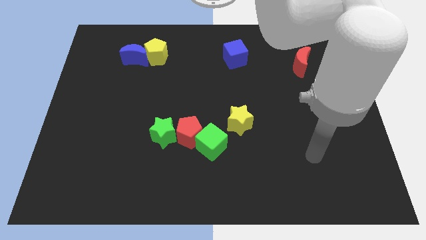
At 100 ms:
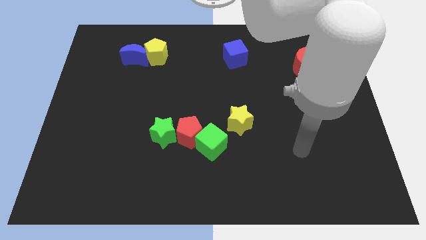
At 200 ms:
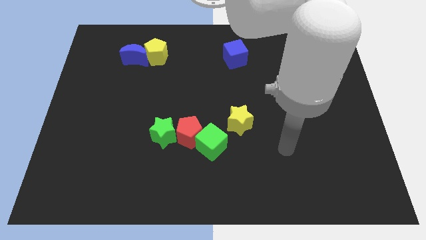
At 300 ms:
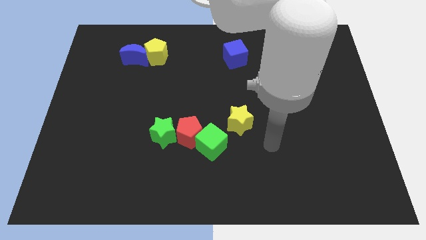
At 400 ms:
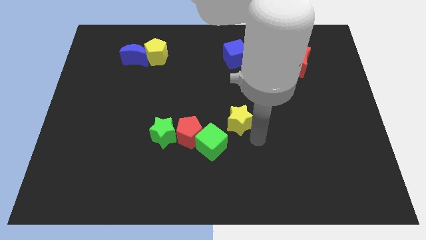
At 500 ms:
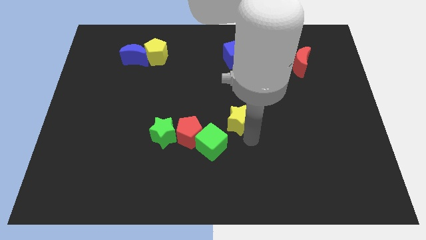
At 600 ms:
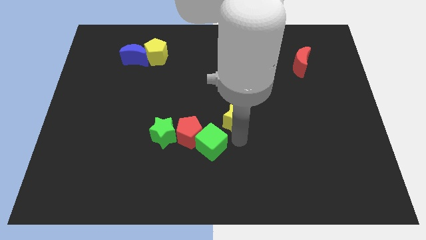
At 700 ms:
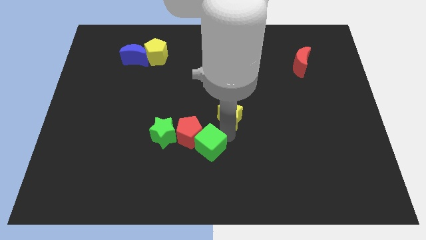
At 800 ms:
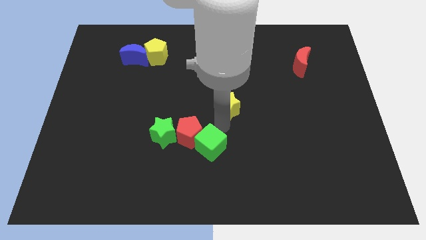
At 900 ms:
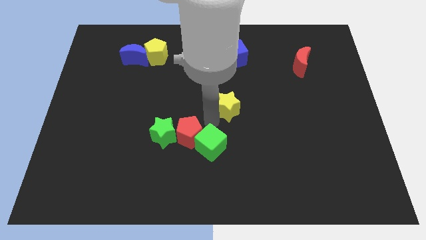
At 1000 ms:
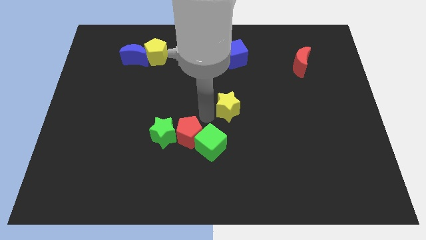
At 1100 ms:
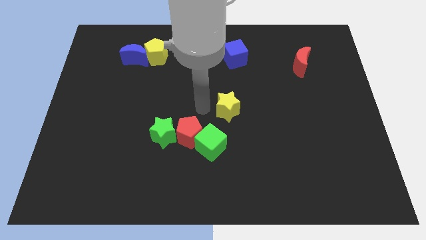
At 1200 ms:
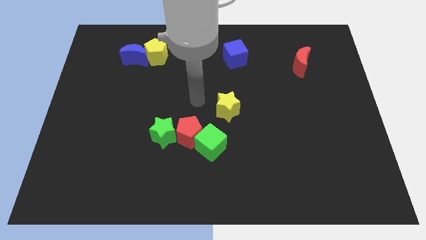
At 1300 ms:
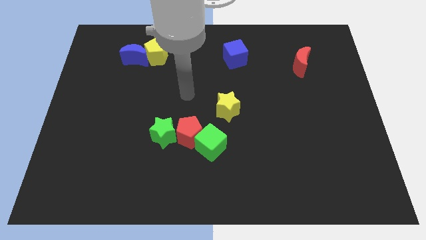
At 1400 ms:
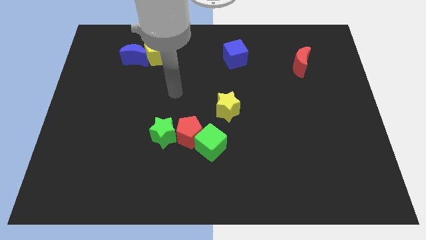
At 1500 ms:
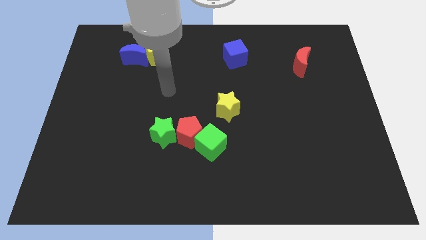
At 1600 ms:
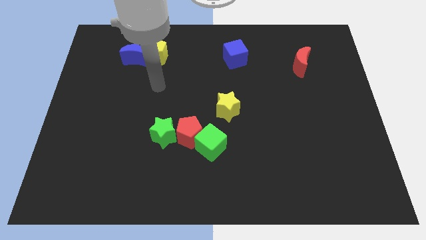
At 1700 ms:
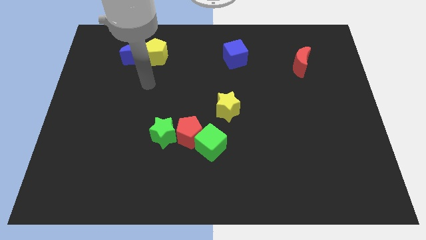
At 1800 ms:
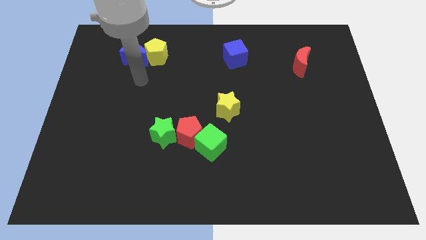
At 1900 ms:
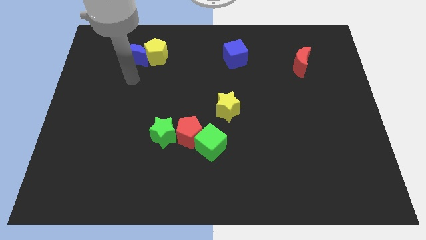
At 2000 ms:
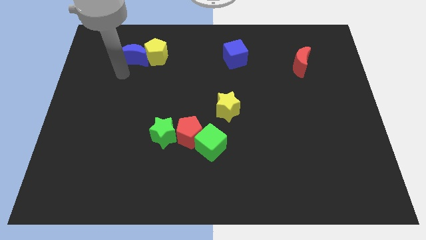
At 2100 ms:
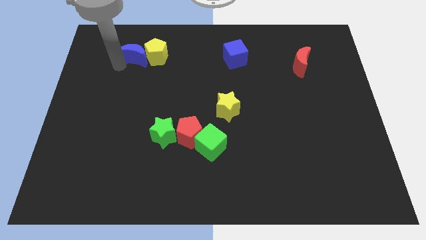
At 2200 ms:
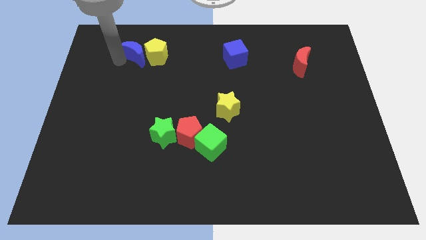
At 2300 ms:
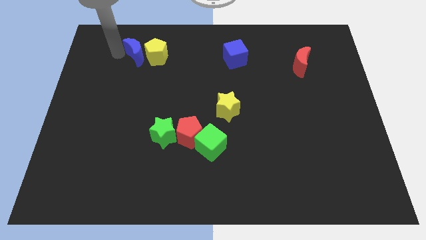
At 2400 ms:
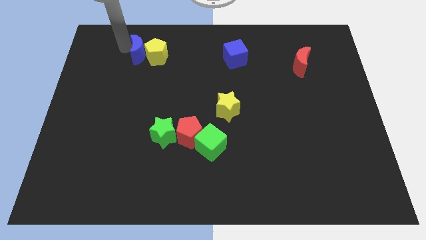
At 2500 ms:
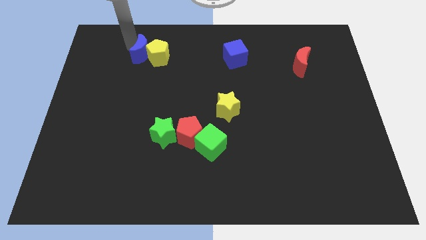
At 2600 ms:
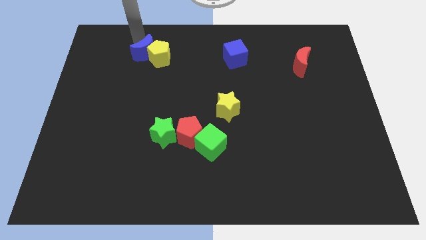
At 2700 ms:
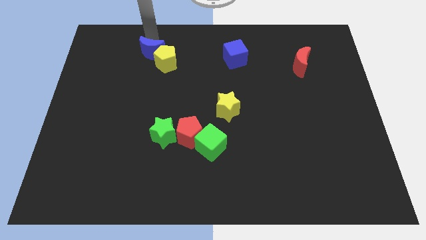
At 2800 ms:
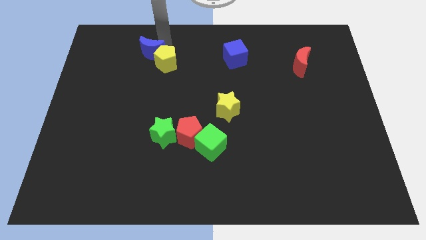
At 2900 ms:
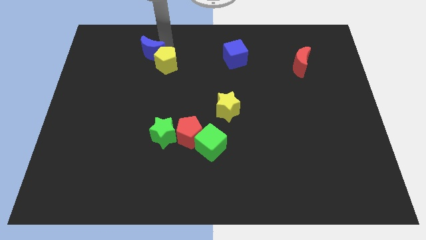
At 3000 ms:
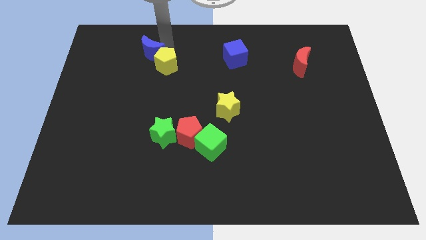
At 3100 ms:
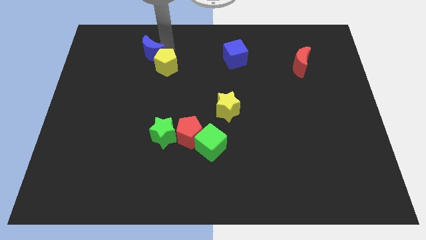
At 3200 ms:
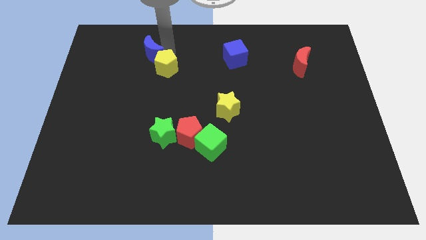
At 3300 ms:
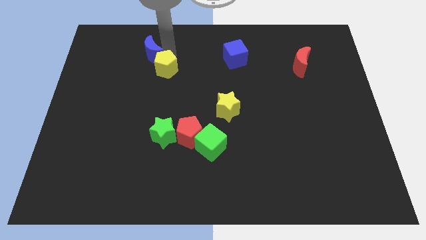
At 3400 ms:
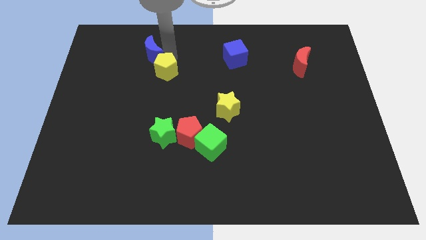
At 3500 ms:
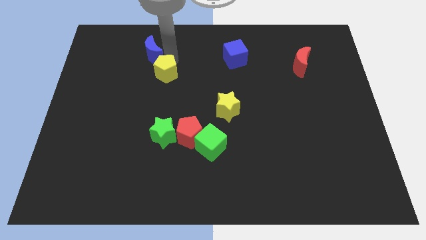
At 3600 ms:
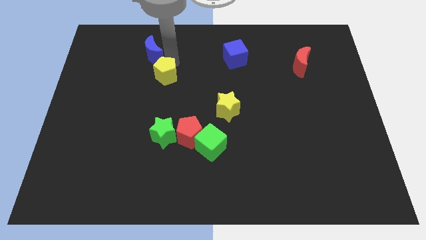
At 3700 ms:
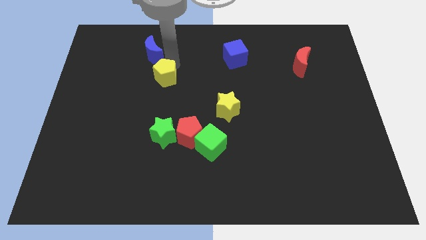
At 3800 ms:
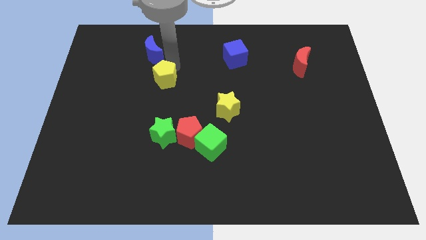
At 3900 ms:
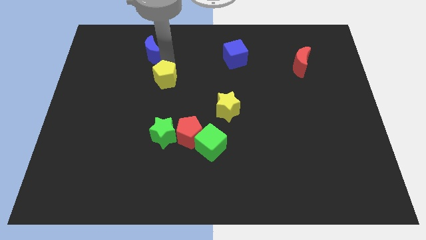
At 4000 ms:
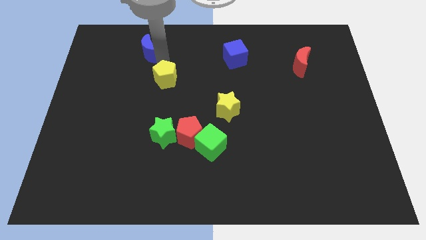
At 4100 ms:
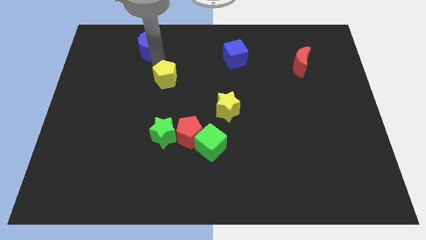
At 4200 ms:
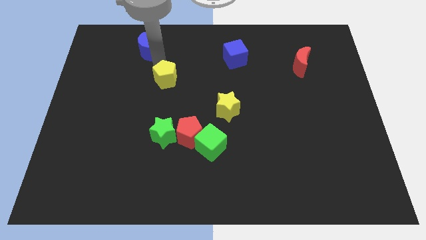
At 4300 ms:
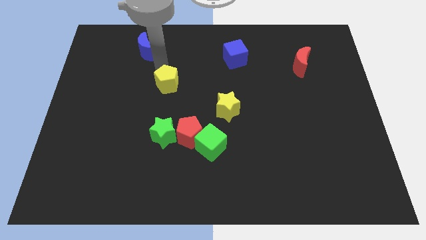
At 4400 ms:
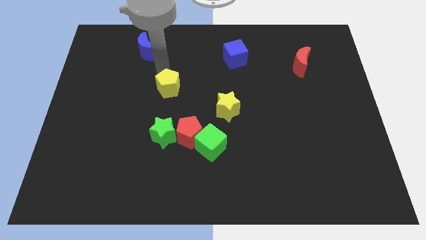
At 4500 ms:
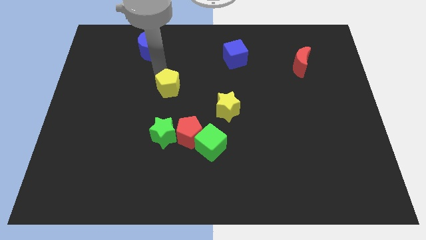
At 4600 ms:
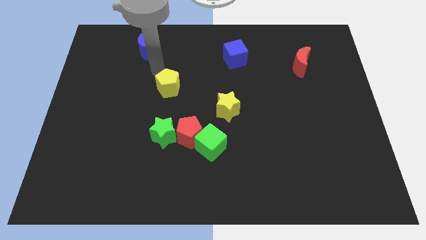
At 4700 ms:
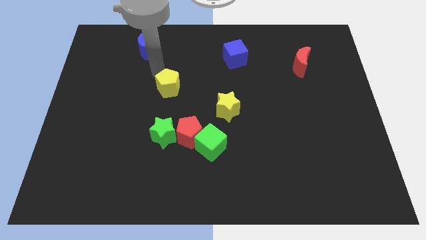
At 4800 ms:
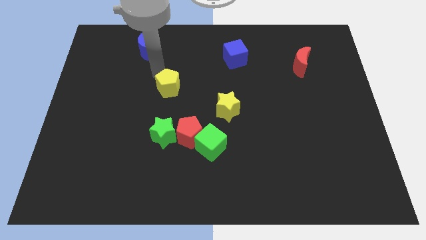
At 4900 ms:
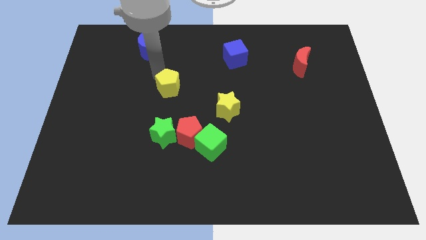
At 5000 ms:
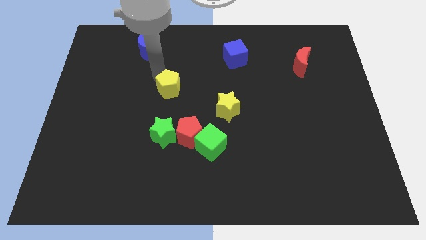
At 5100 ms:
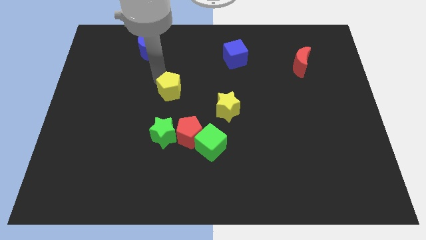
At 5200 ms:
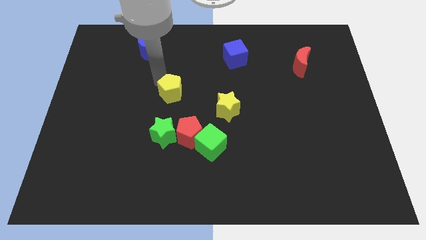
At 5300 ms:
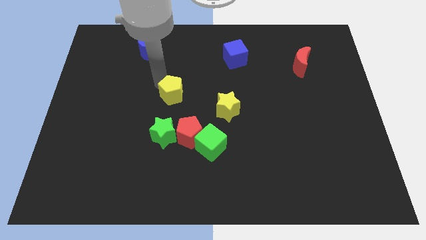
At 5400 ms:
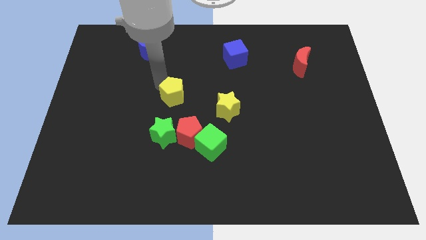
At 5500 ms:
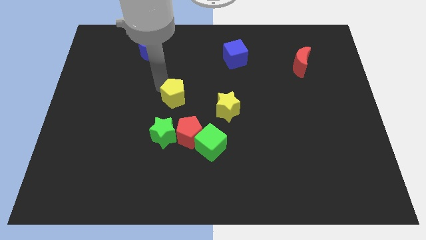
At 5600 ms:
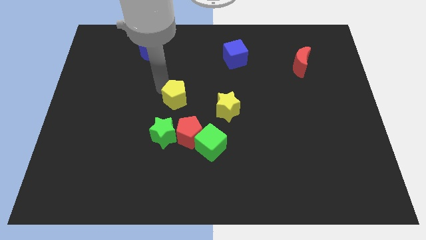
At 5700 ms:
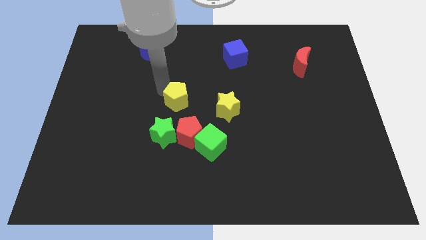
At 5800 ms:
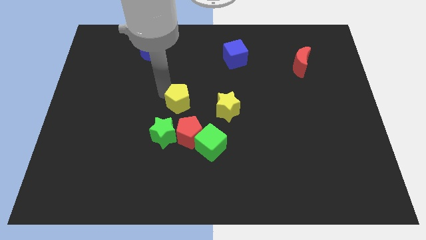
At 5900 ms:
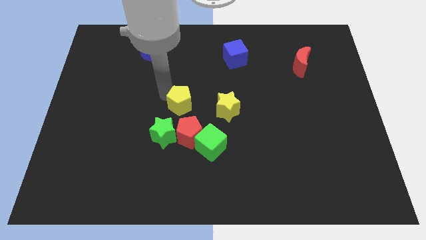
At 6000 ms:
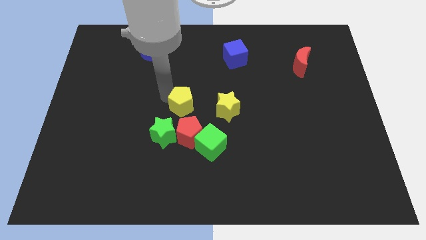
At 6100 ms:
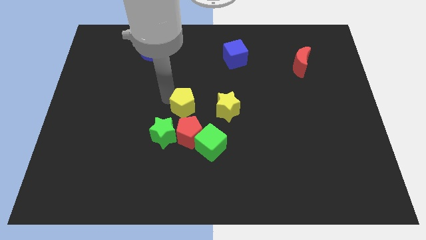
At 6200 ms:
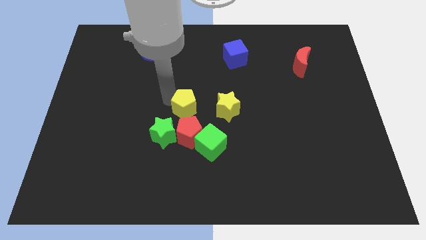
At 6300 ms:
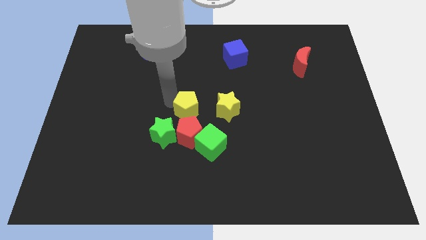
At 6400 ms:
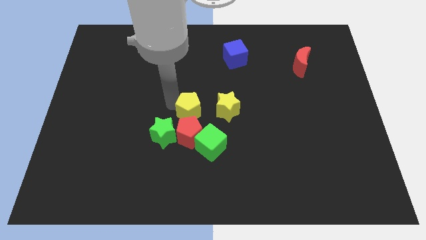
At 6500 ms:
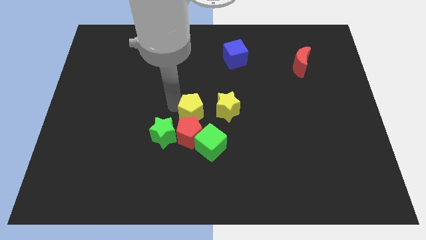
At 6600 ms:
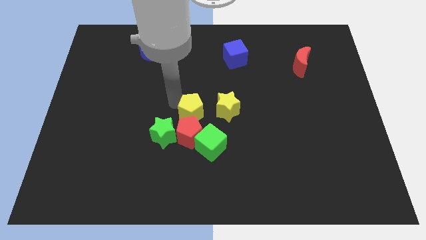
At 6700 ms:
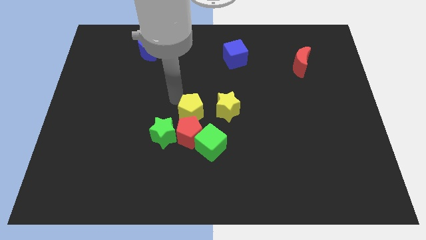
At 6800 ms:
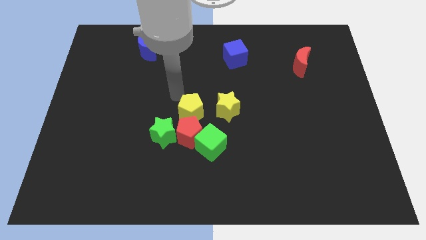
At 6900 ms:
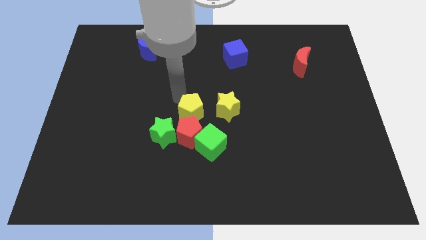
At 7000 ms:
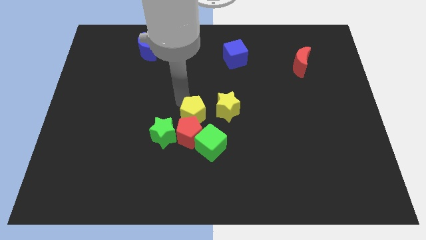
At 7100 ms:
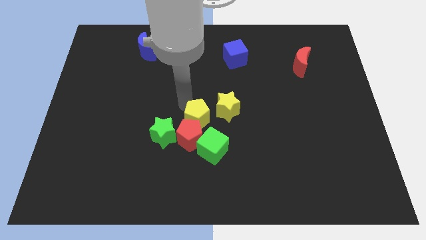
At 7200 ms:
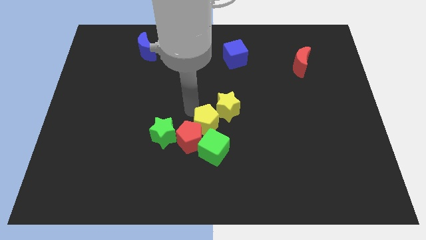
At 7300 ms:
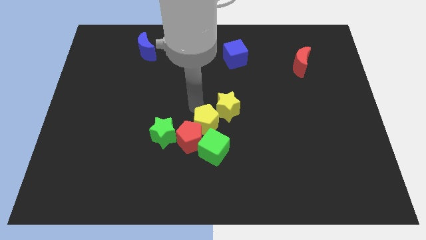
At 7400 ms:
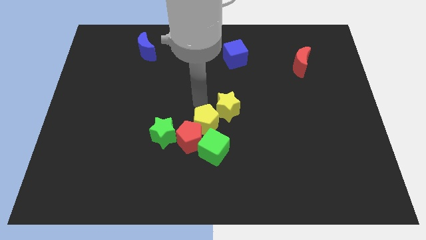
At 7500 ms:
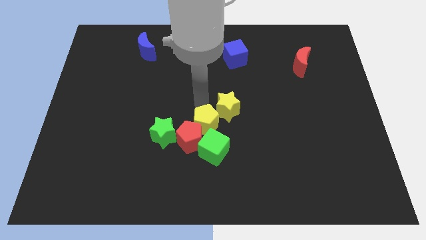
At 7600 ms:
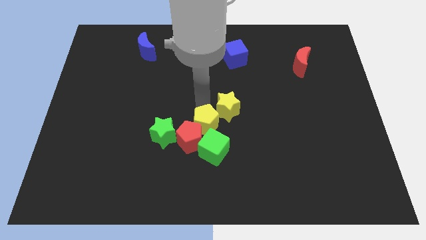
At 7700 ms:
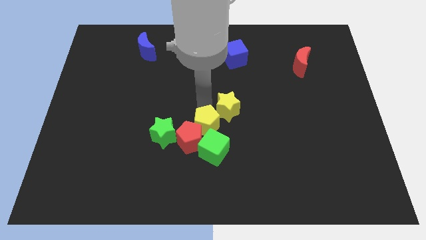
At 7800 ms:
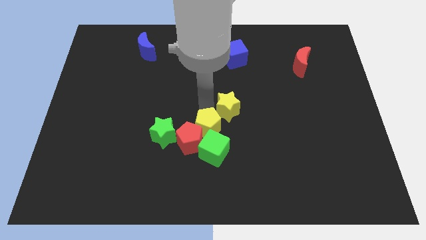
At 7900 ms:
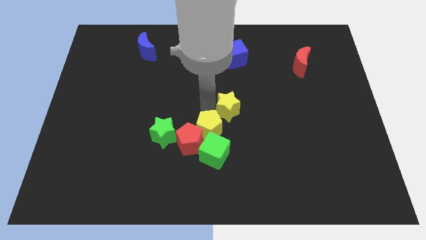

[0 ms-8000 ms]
slide the yellow pentagon close to the green cube
